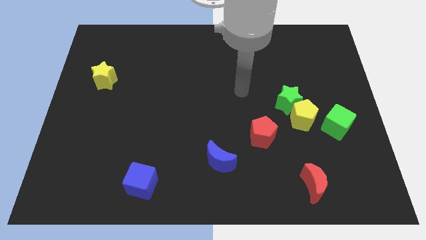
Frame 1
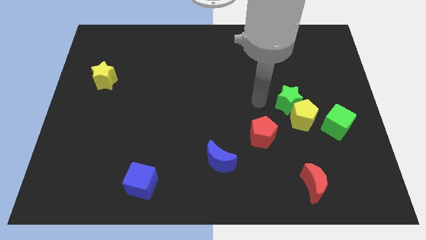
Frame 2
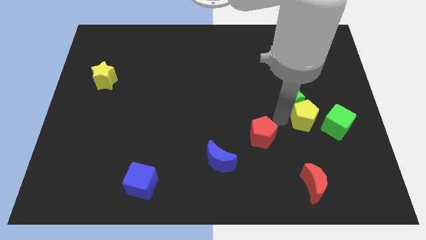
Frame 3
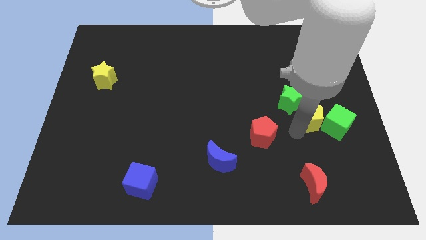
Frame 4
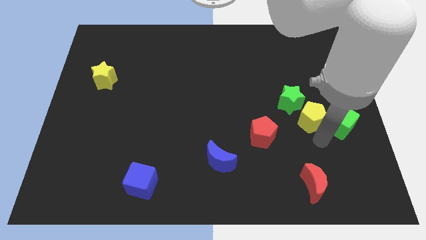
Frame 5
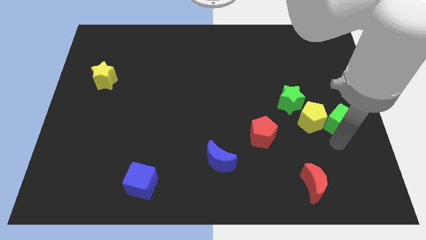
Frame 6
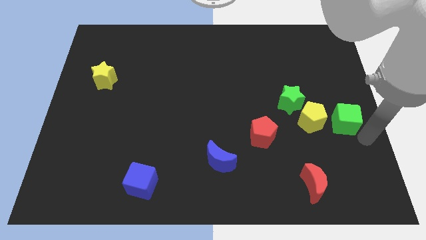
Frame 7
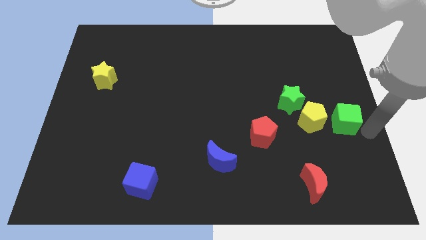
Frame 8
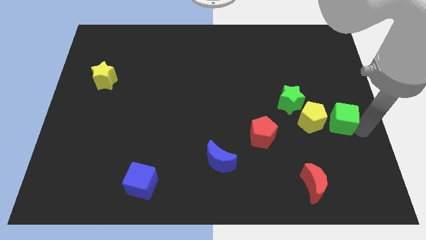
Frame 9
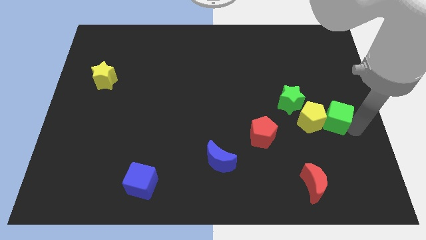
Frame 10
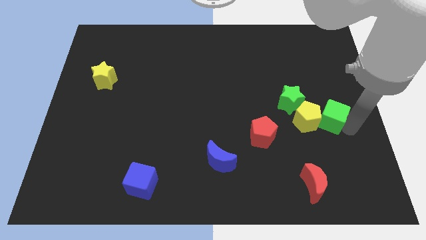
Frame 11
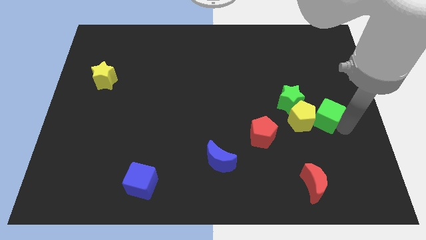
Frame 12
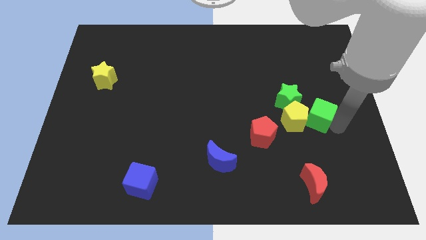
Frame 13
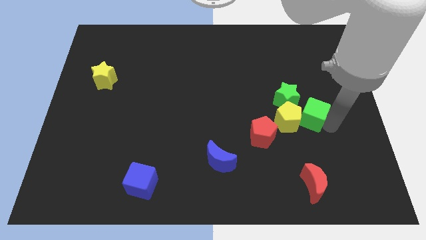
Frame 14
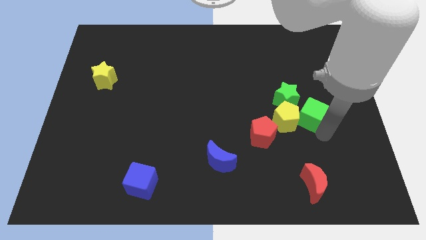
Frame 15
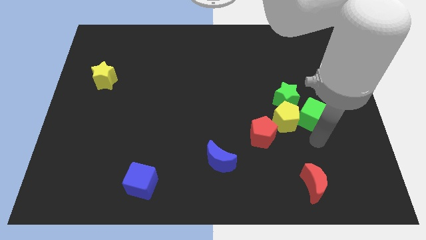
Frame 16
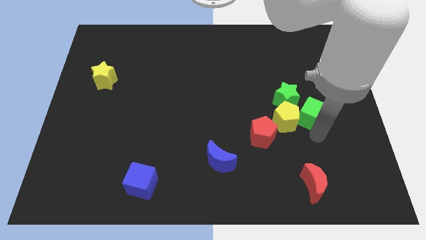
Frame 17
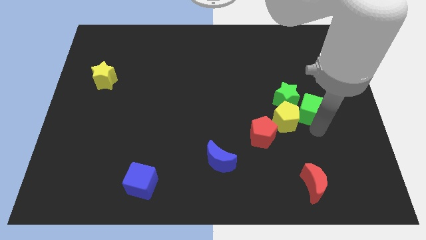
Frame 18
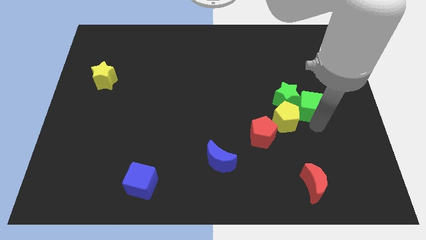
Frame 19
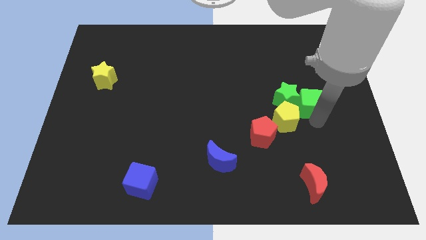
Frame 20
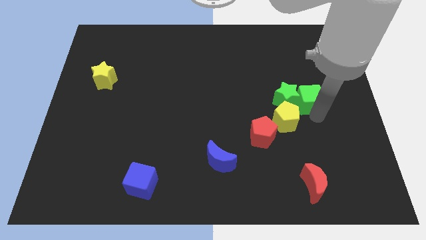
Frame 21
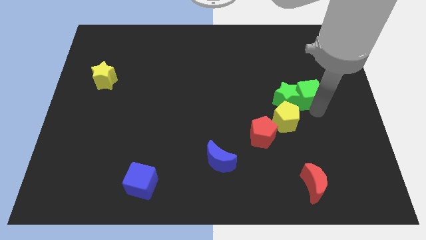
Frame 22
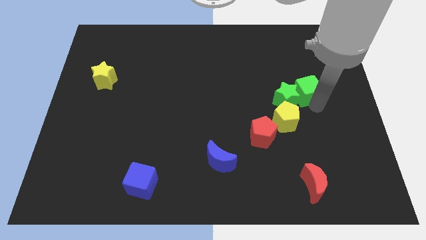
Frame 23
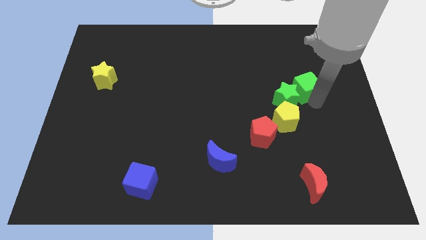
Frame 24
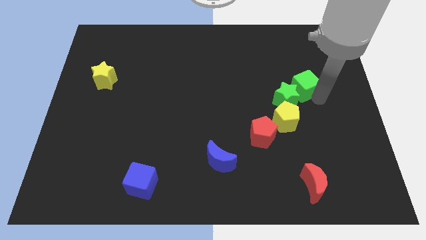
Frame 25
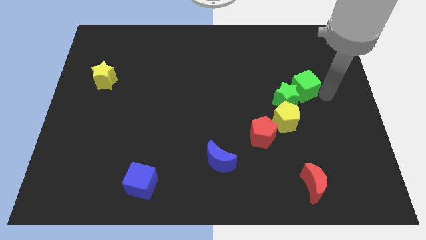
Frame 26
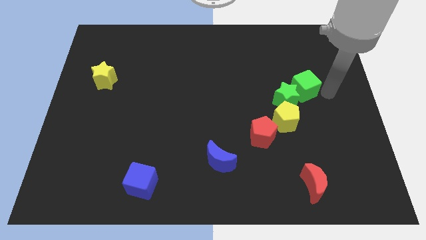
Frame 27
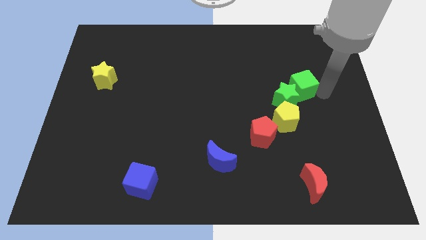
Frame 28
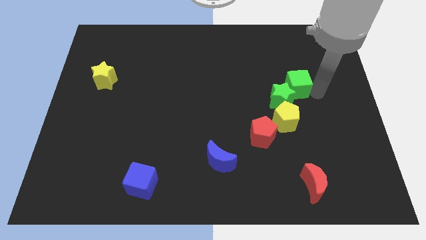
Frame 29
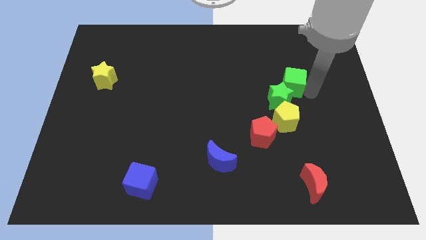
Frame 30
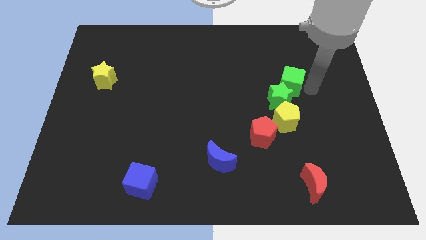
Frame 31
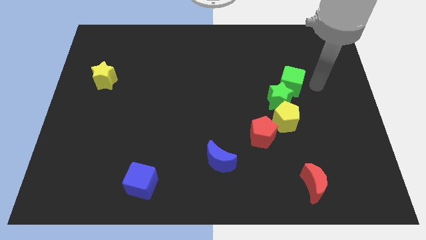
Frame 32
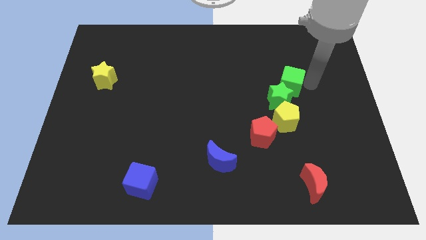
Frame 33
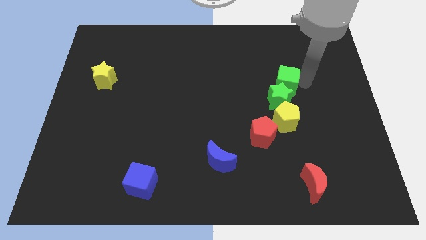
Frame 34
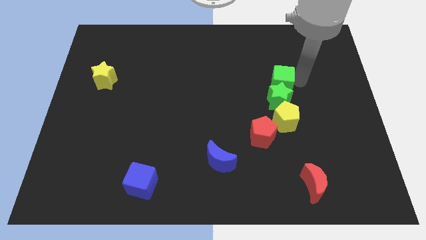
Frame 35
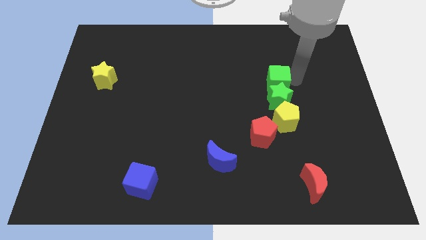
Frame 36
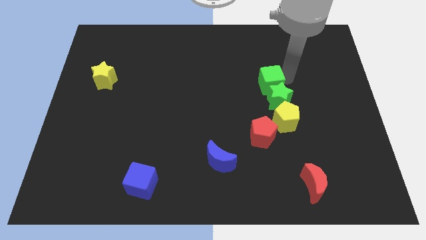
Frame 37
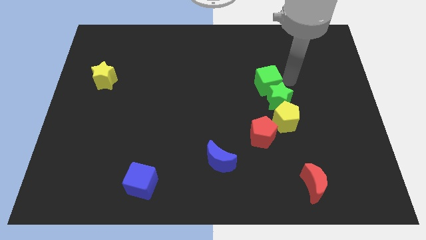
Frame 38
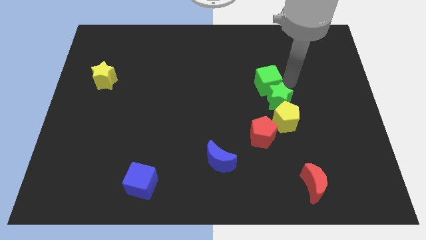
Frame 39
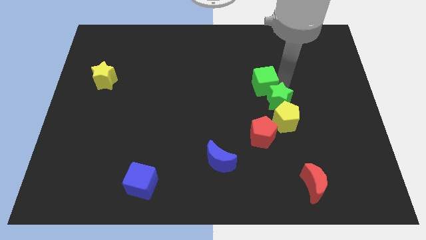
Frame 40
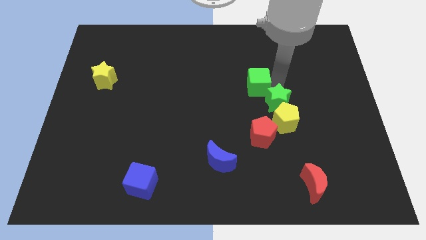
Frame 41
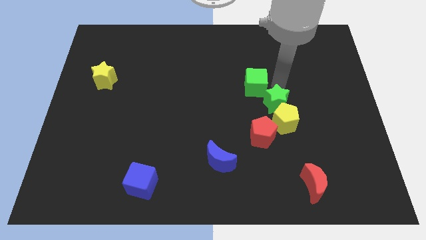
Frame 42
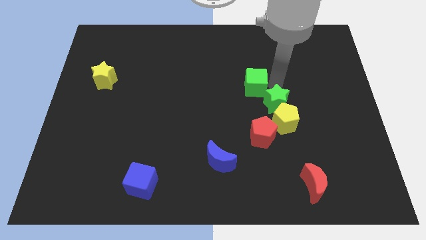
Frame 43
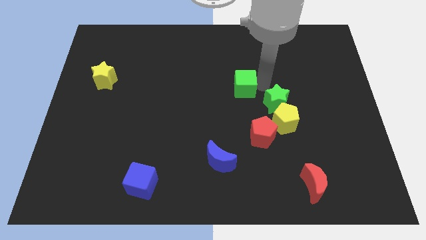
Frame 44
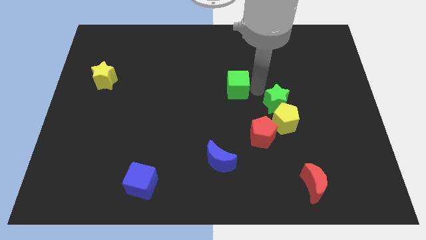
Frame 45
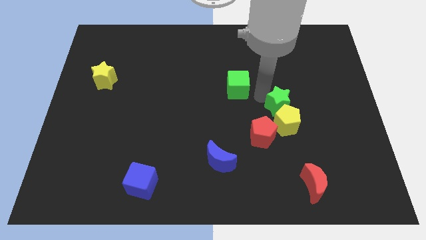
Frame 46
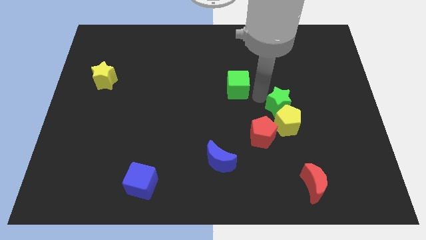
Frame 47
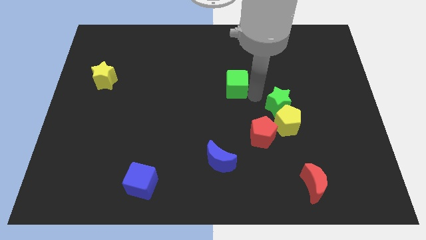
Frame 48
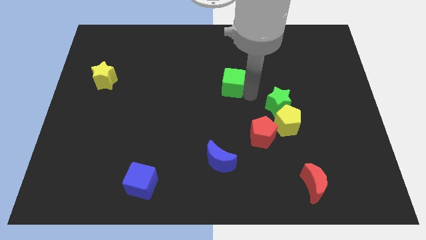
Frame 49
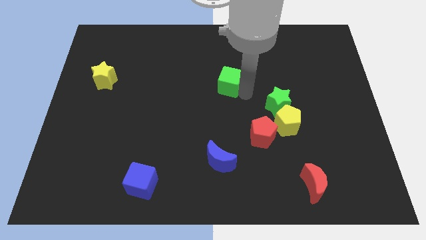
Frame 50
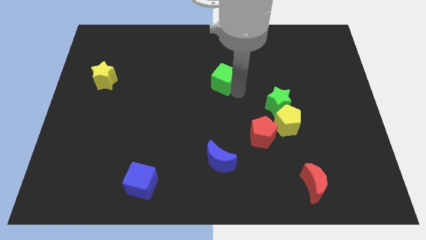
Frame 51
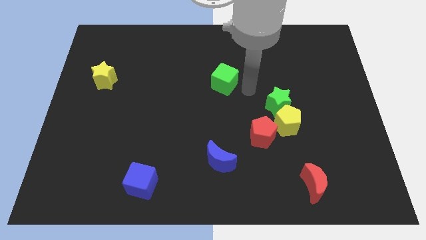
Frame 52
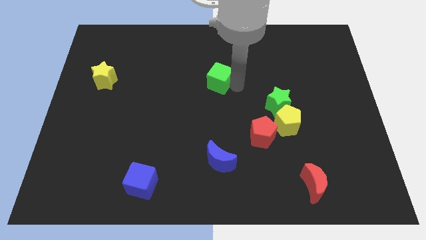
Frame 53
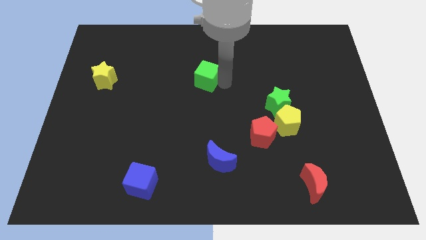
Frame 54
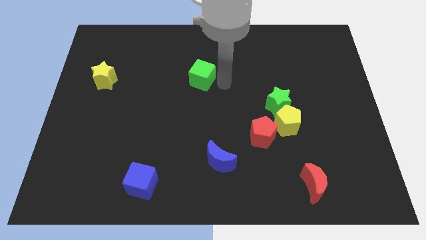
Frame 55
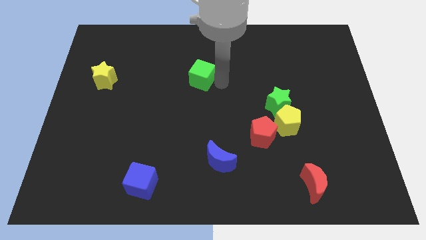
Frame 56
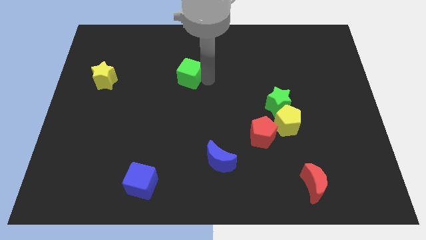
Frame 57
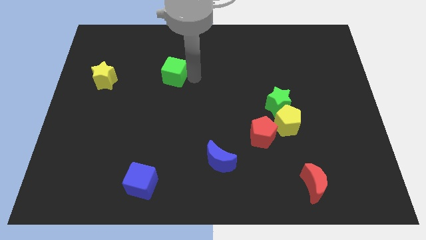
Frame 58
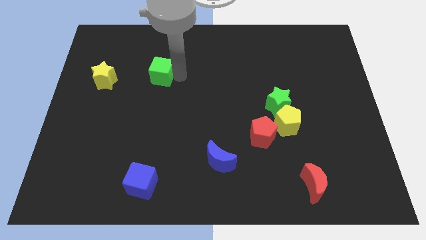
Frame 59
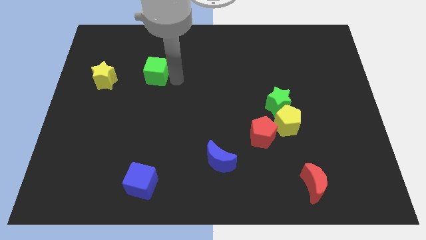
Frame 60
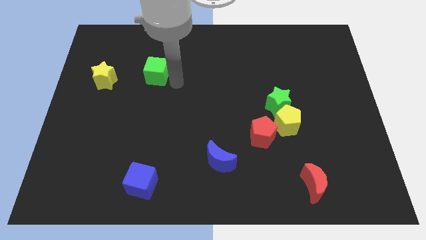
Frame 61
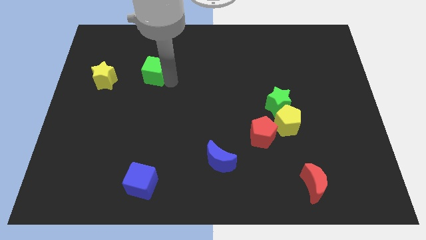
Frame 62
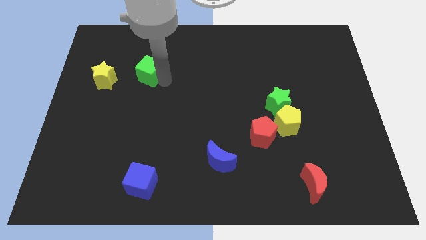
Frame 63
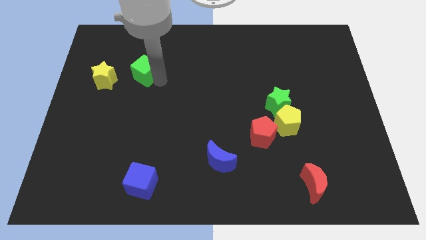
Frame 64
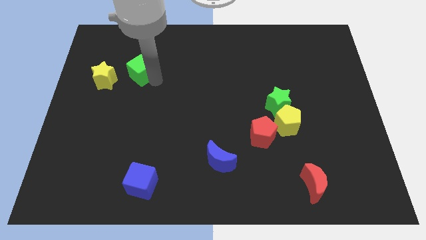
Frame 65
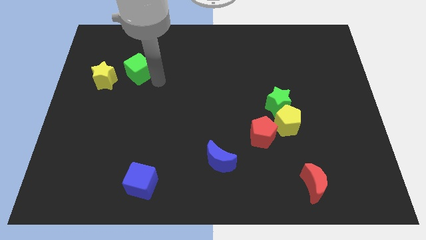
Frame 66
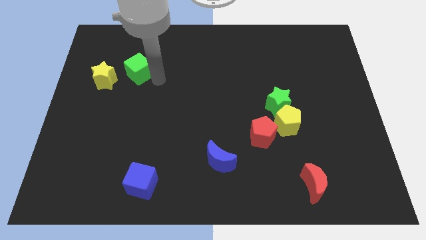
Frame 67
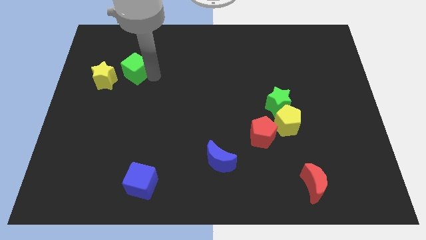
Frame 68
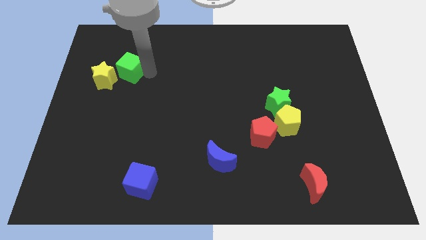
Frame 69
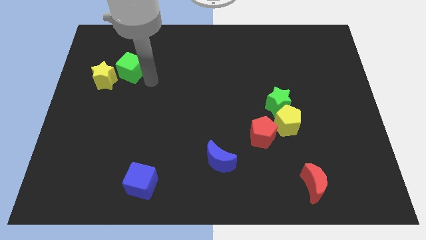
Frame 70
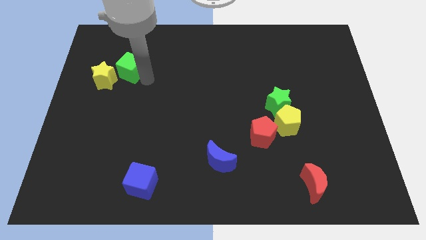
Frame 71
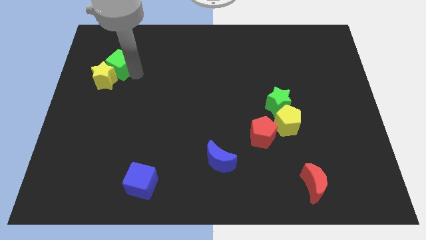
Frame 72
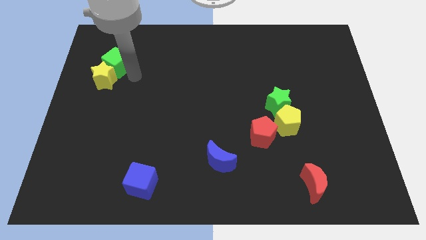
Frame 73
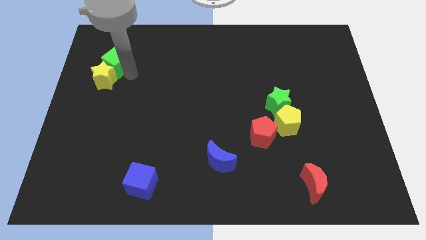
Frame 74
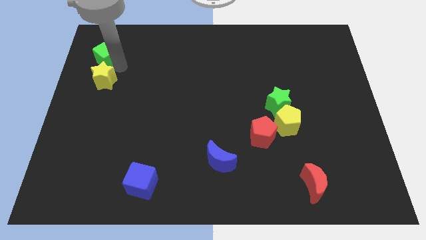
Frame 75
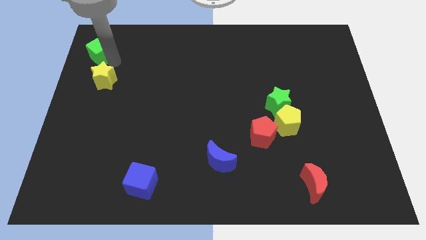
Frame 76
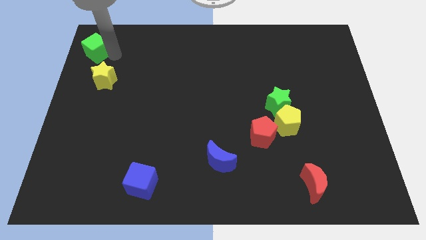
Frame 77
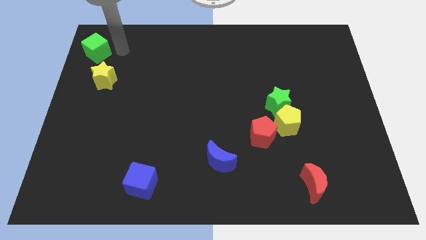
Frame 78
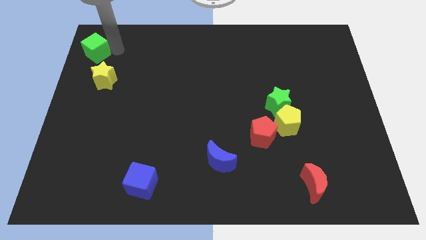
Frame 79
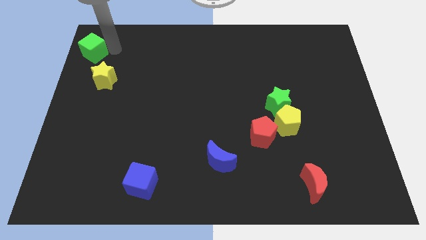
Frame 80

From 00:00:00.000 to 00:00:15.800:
move the green cube to the top left of the board
